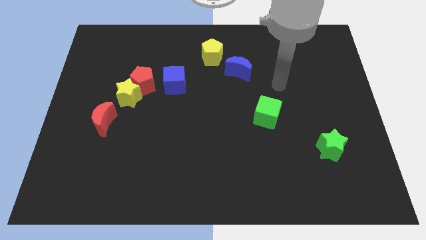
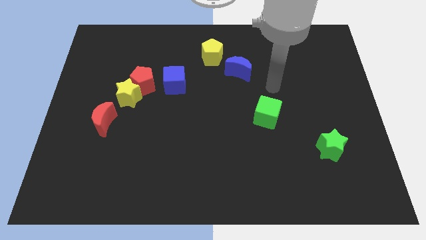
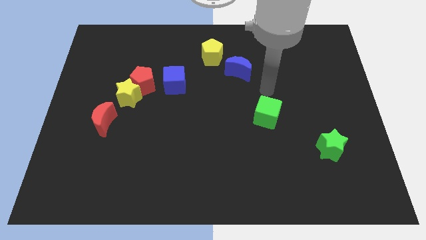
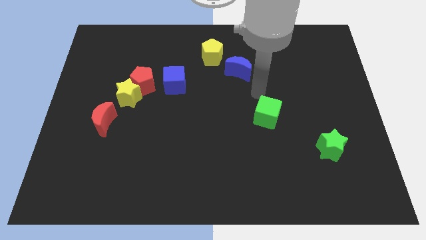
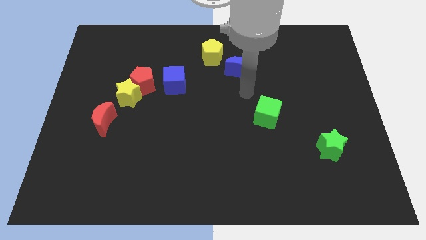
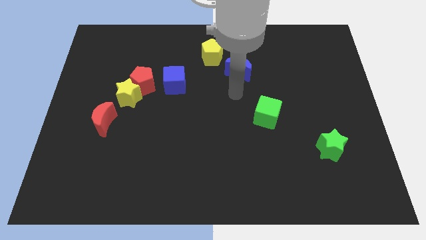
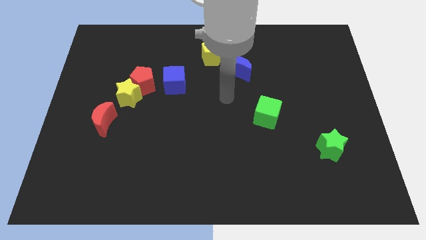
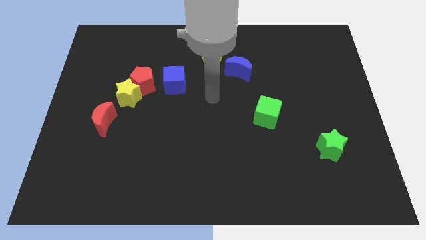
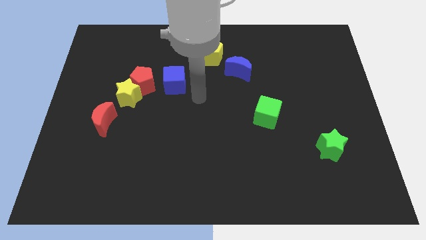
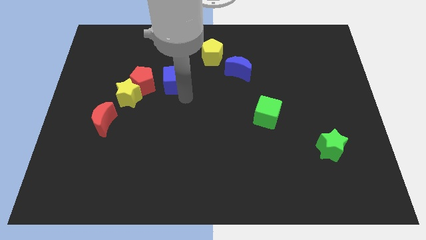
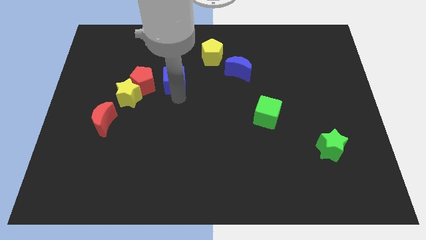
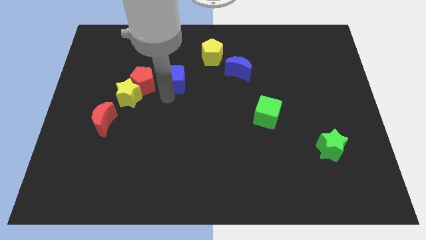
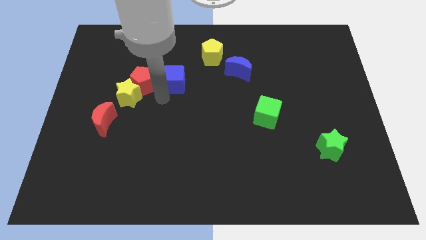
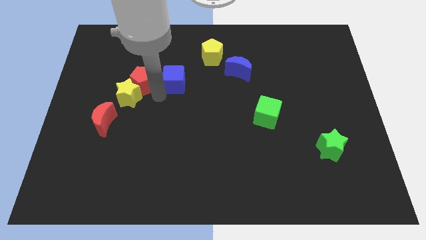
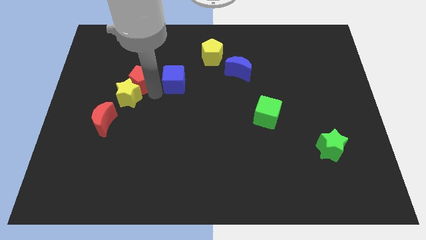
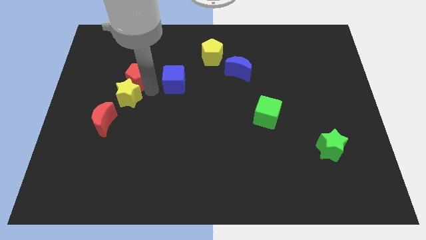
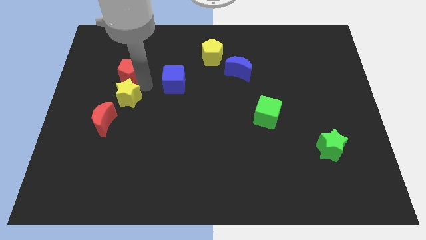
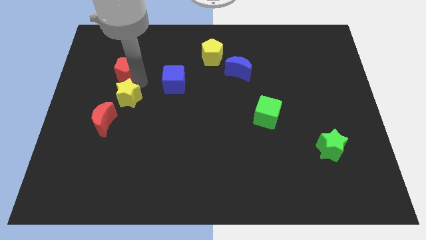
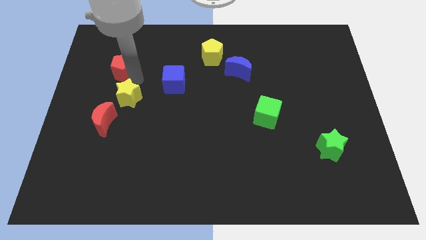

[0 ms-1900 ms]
separate the red pentagon from the yellow star and blue cube

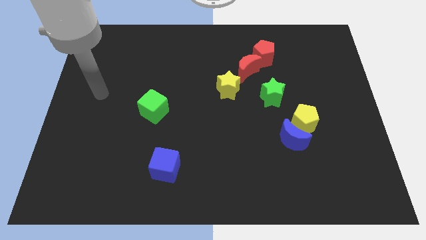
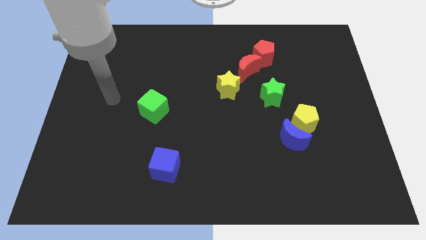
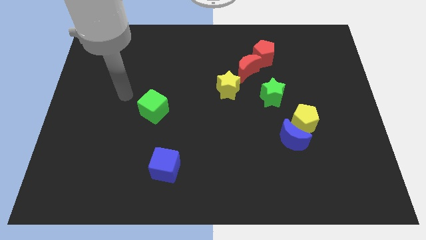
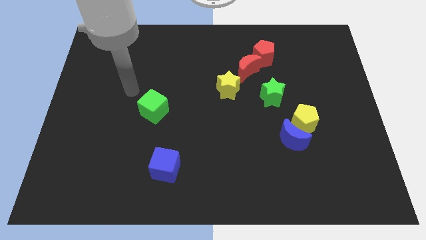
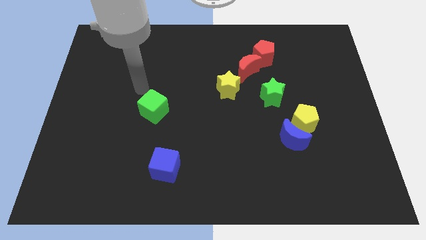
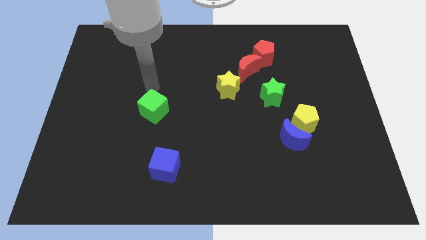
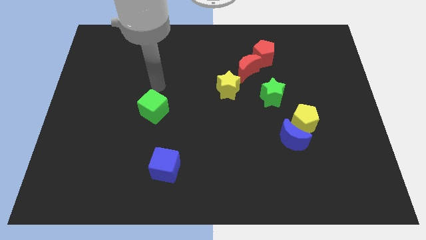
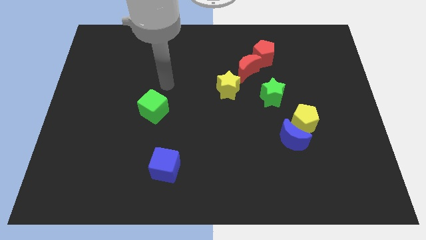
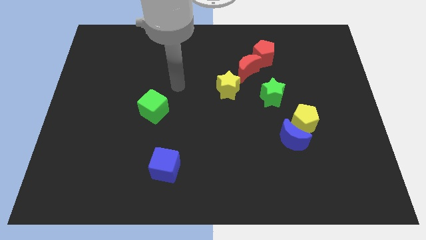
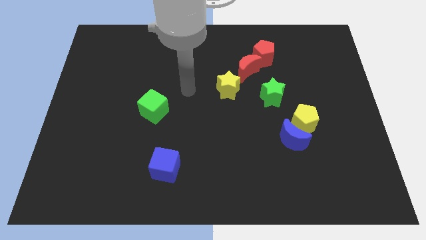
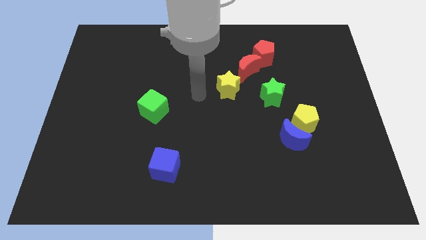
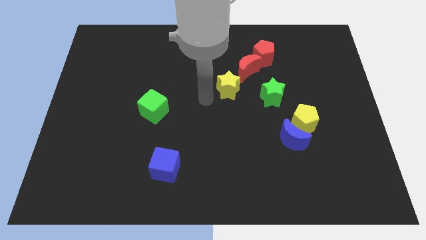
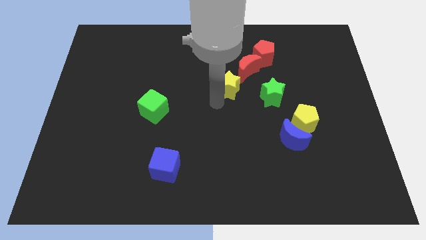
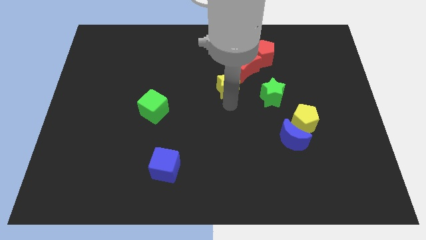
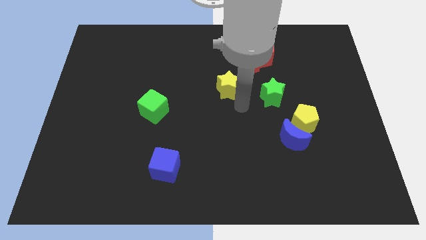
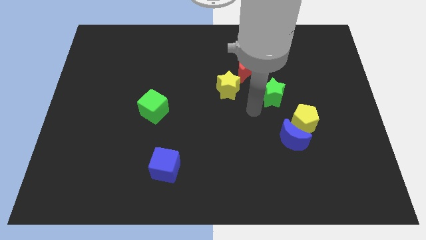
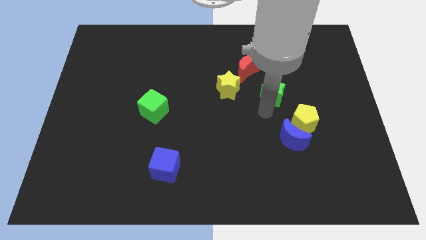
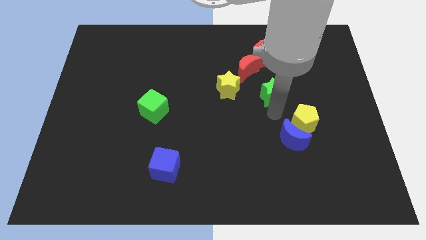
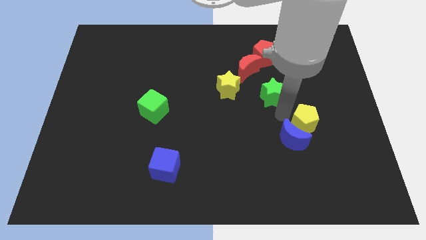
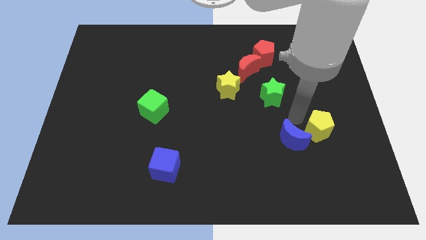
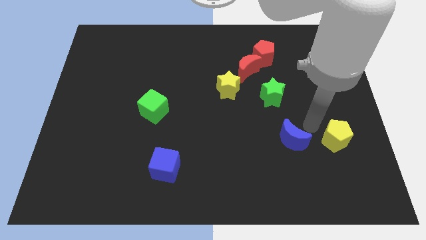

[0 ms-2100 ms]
move the blue moon away from the yellow pentagon

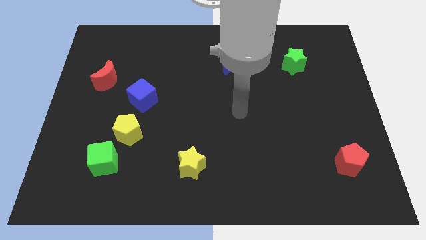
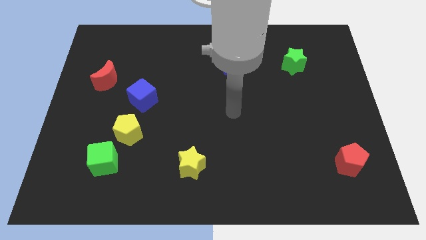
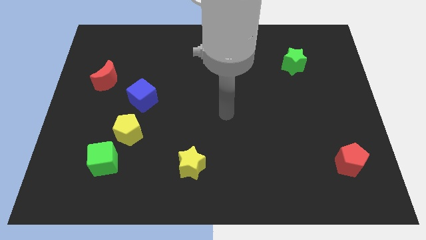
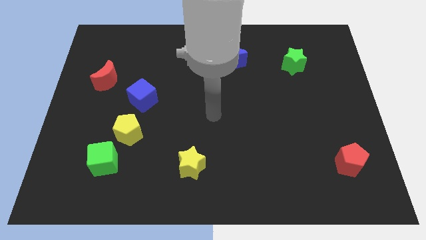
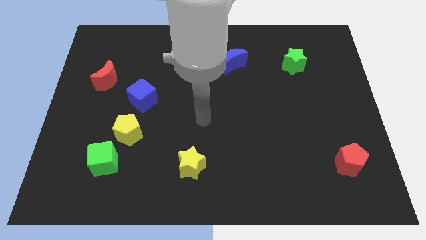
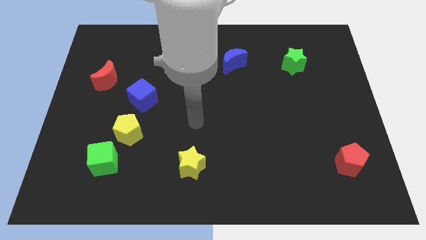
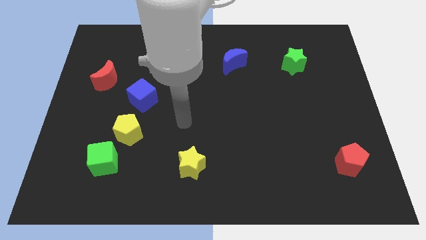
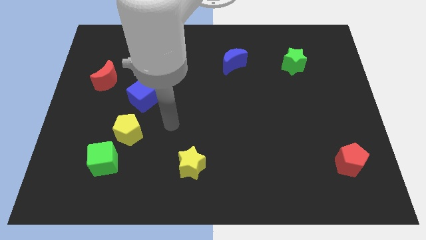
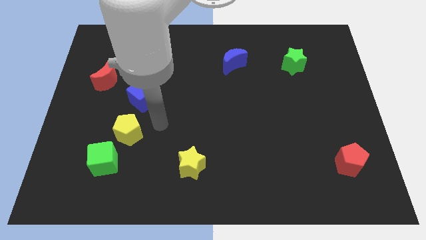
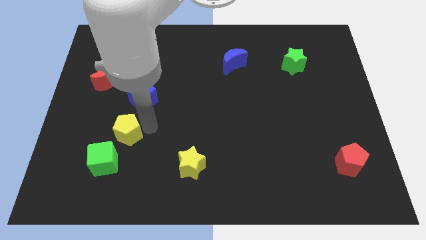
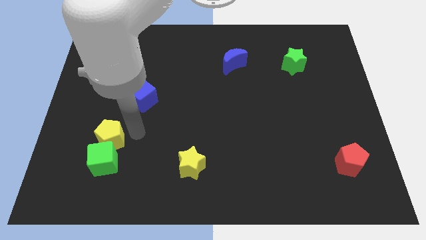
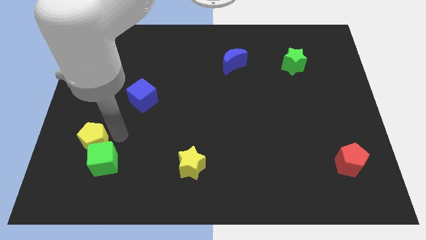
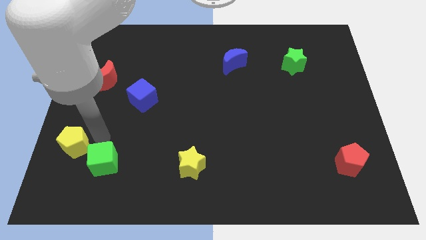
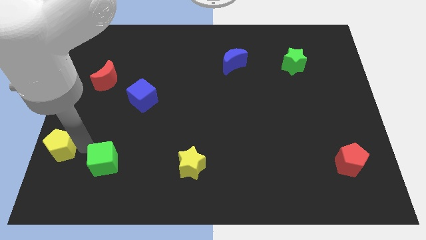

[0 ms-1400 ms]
move the green cube away from the yellow pentagon

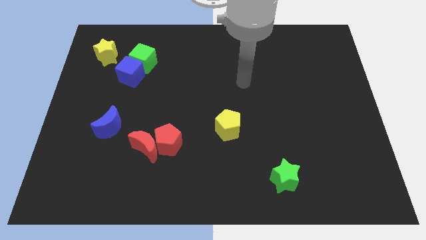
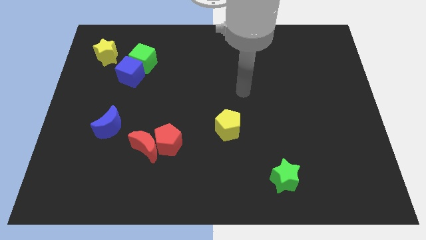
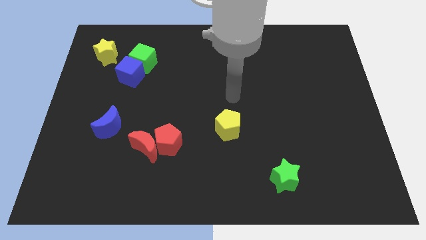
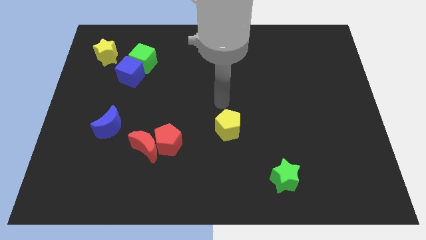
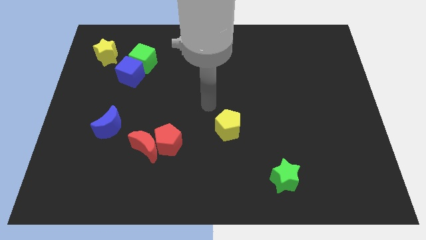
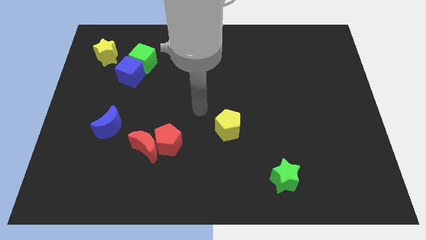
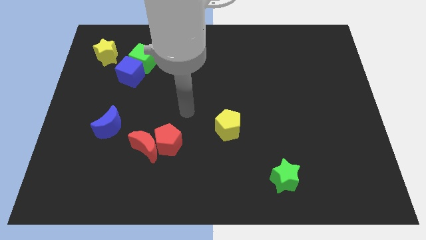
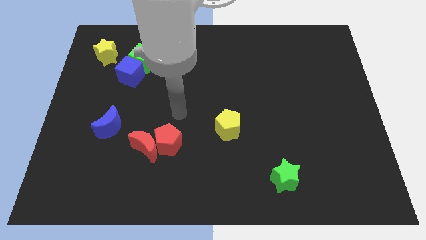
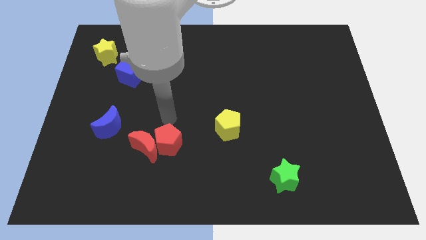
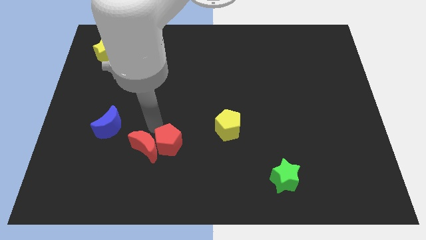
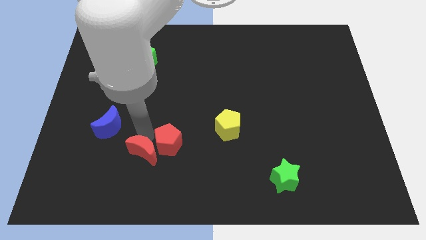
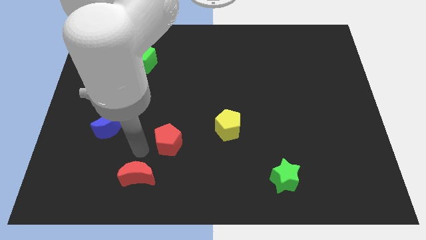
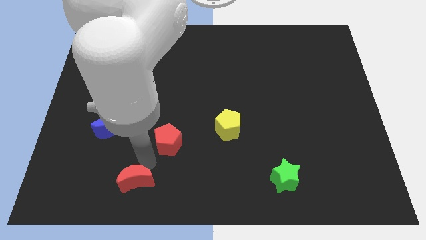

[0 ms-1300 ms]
separate the red pentagon from the red moon

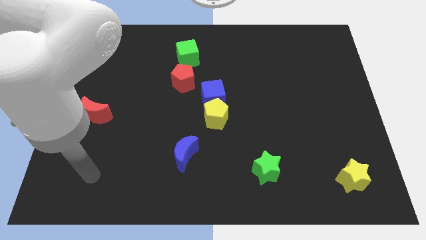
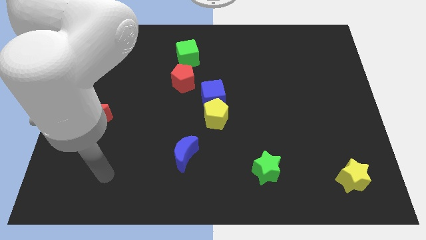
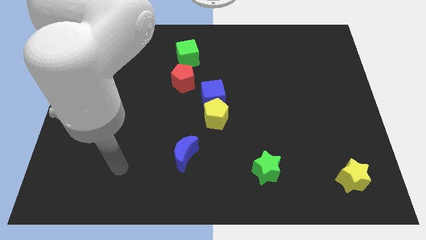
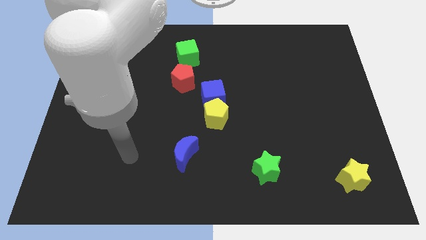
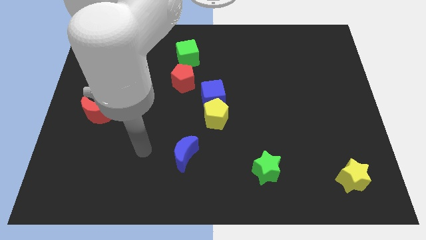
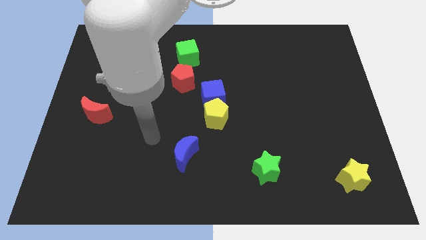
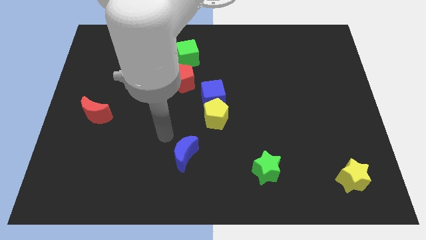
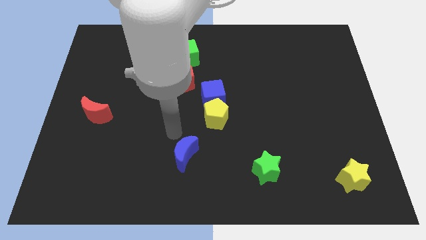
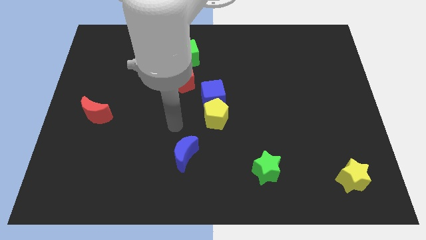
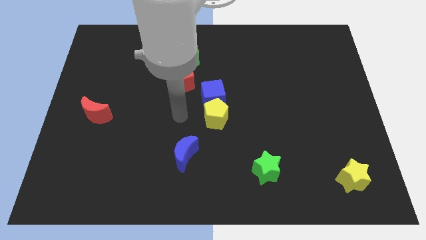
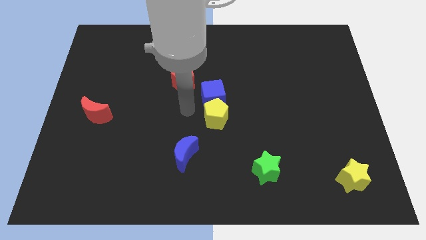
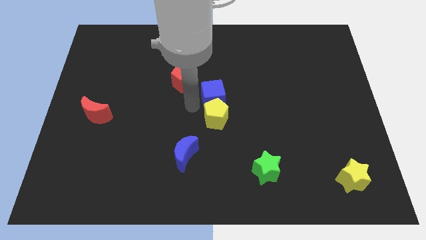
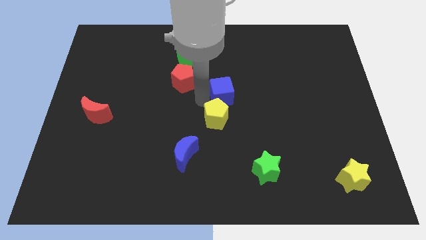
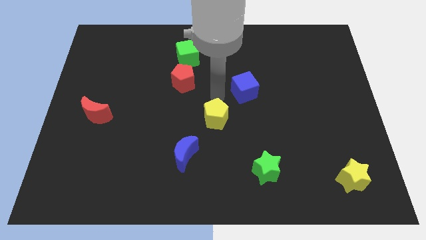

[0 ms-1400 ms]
pull the yellow pentagon apart from the blue cube

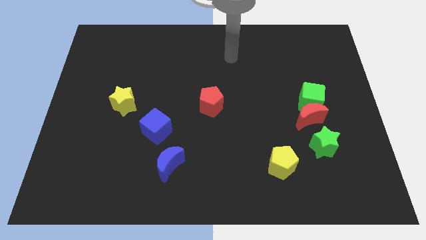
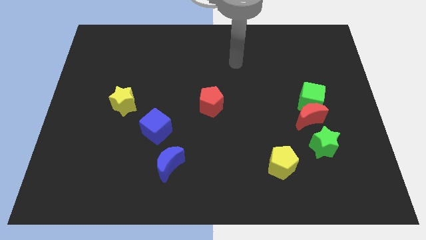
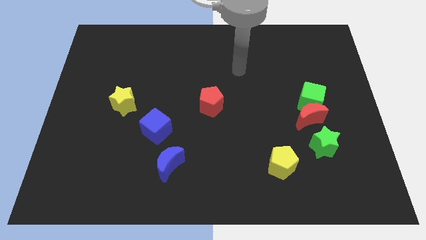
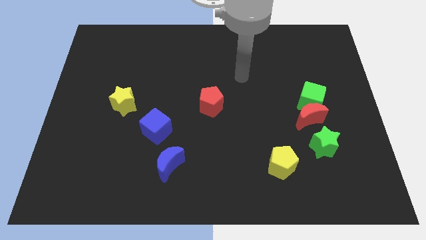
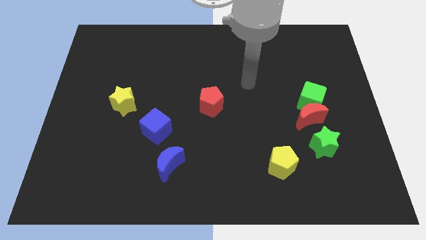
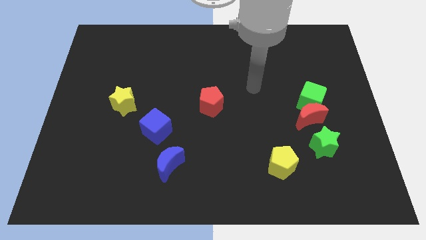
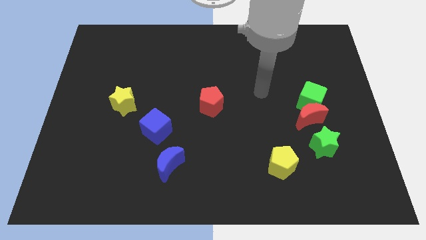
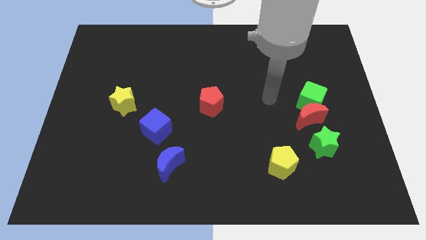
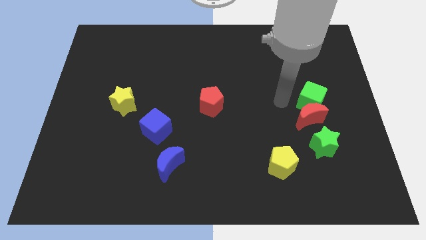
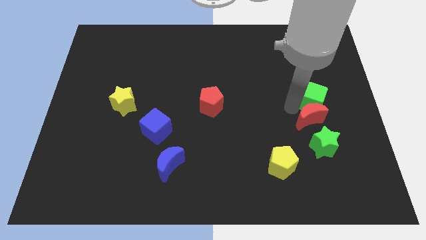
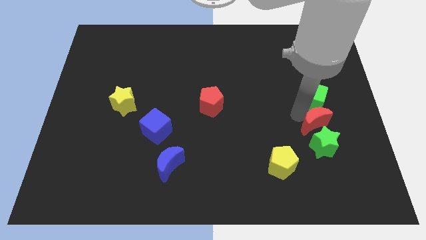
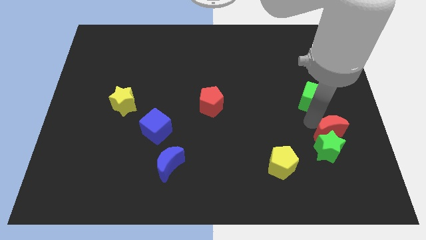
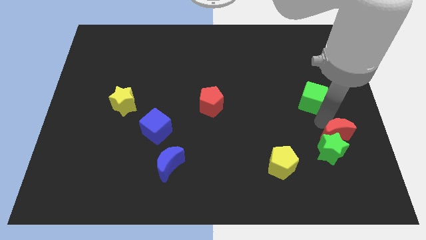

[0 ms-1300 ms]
pull the green cube apart from the red moon
